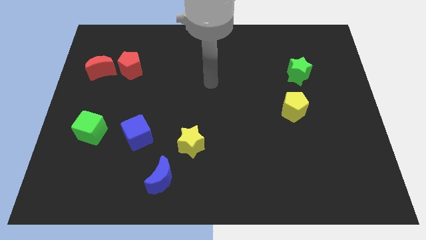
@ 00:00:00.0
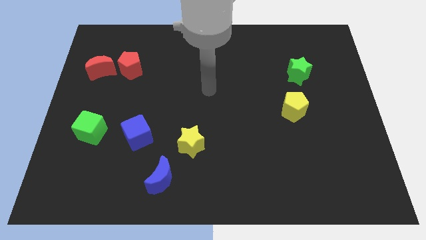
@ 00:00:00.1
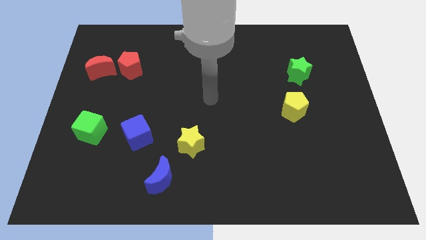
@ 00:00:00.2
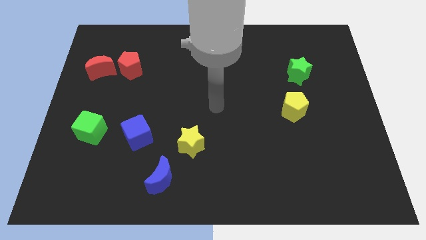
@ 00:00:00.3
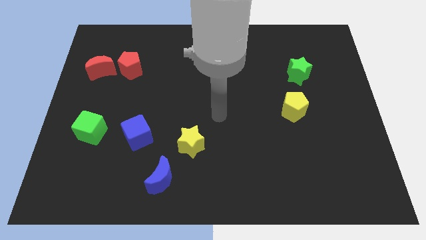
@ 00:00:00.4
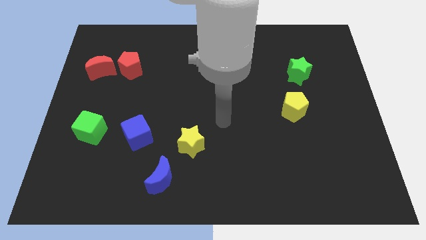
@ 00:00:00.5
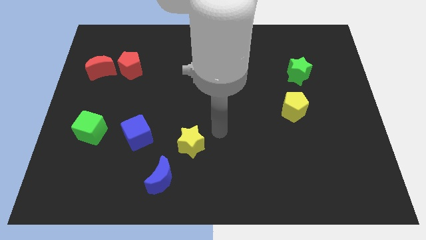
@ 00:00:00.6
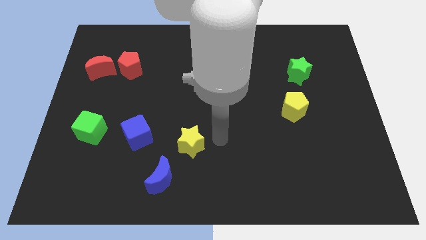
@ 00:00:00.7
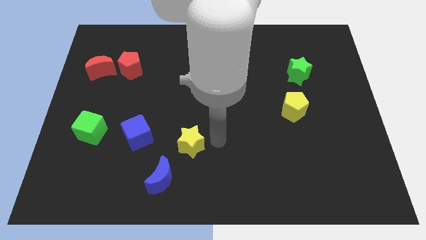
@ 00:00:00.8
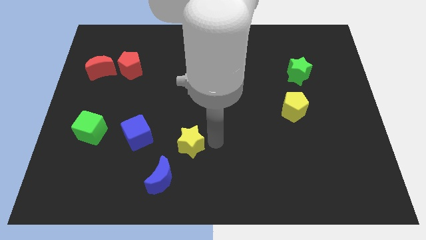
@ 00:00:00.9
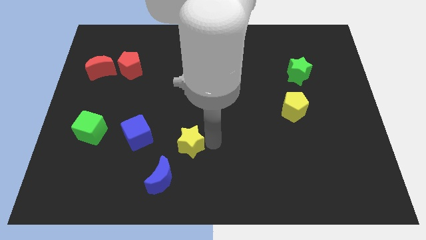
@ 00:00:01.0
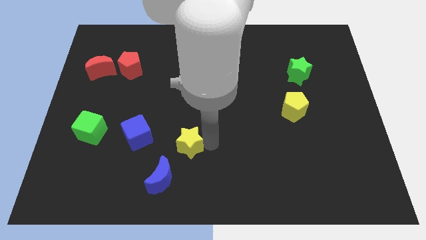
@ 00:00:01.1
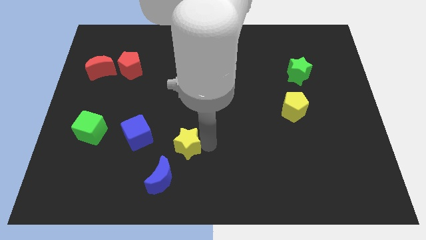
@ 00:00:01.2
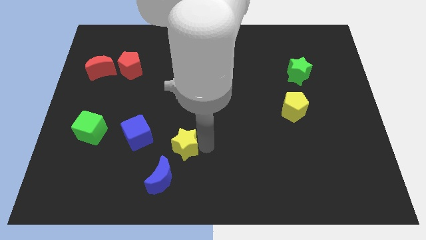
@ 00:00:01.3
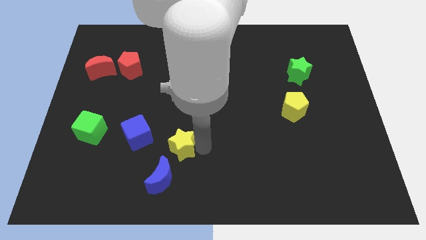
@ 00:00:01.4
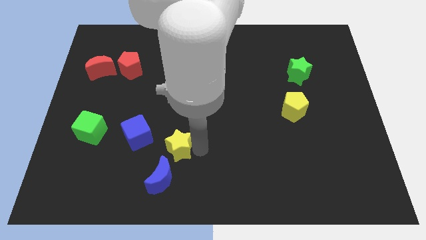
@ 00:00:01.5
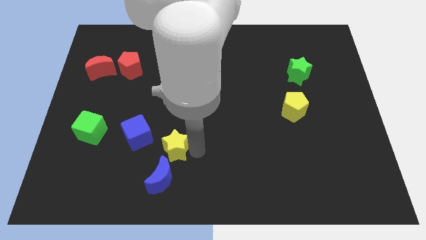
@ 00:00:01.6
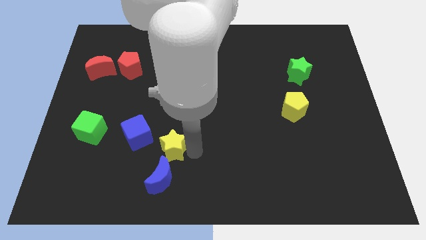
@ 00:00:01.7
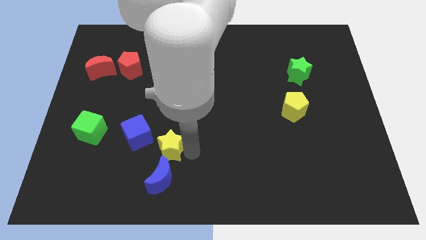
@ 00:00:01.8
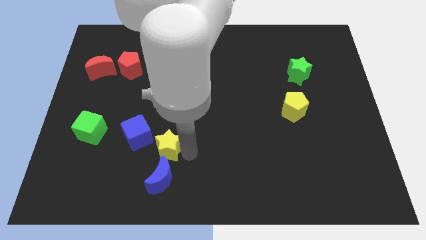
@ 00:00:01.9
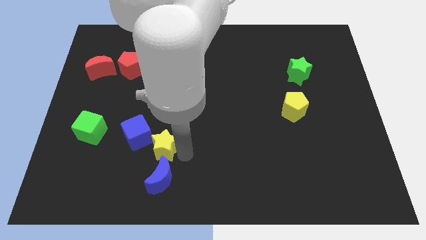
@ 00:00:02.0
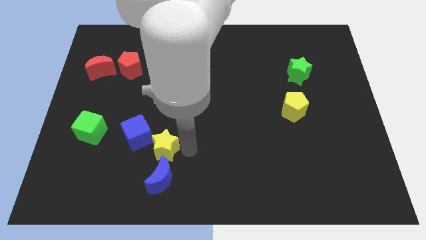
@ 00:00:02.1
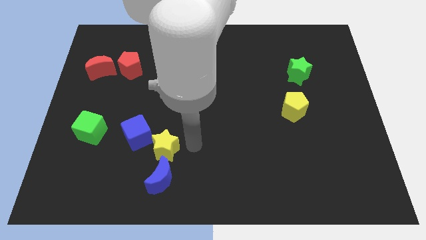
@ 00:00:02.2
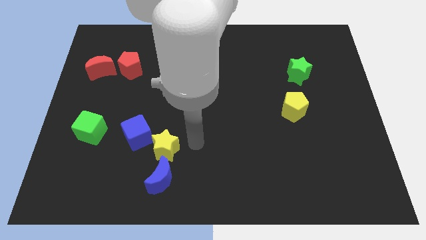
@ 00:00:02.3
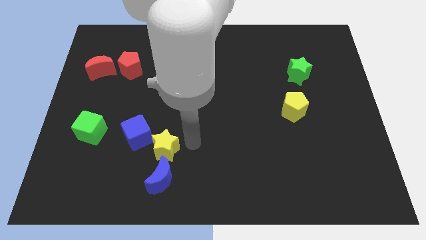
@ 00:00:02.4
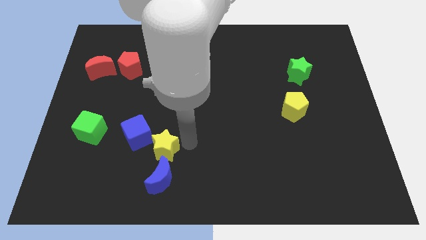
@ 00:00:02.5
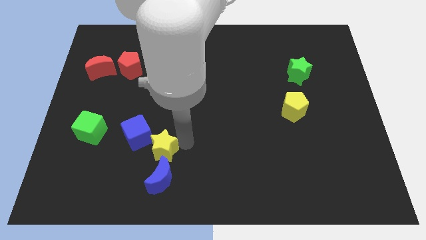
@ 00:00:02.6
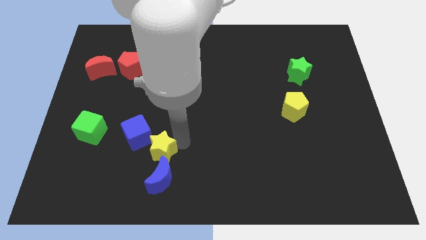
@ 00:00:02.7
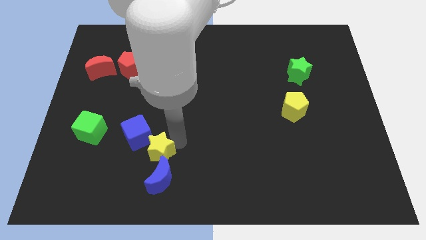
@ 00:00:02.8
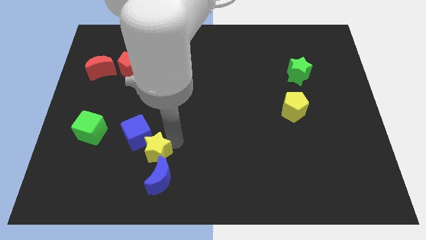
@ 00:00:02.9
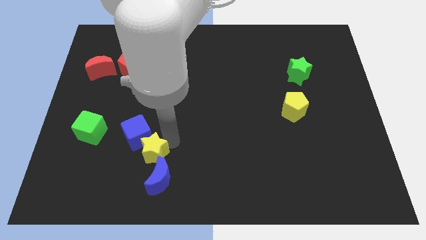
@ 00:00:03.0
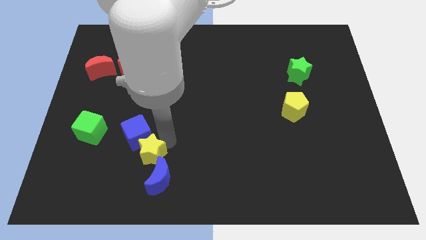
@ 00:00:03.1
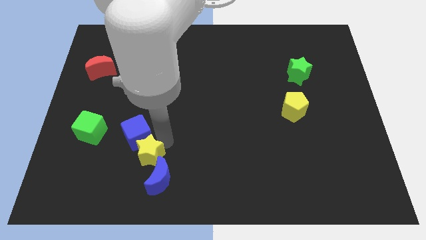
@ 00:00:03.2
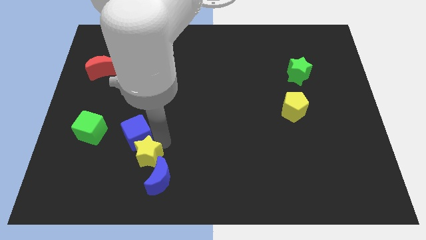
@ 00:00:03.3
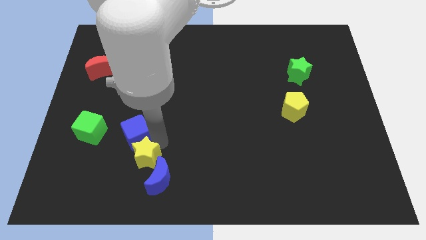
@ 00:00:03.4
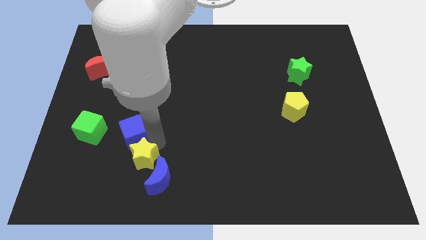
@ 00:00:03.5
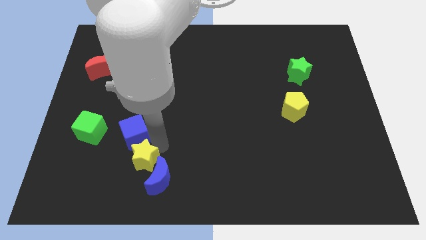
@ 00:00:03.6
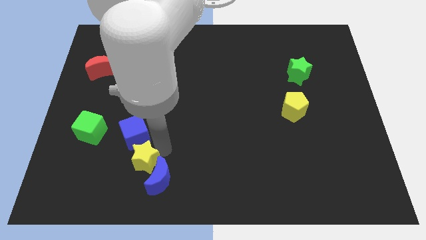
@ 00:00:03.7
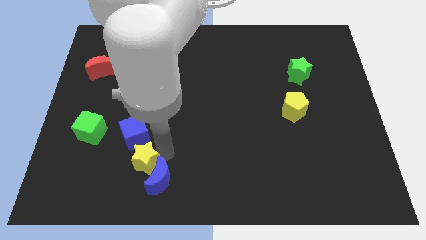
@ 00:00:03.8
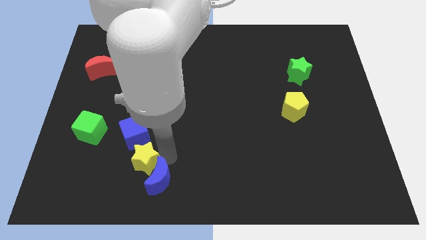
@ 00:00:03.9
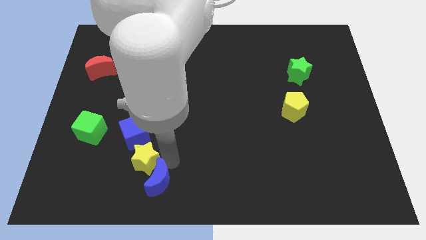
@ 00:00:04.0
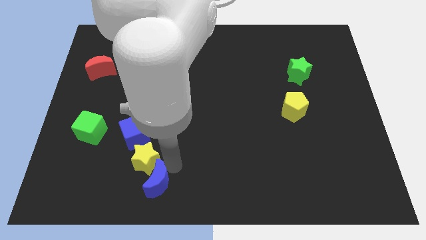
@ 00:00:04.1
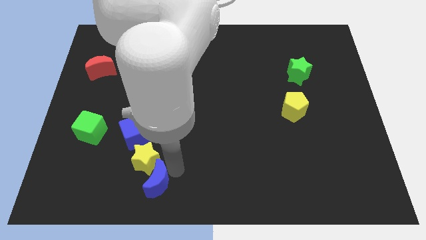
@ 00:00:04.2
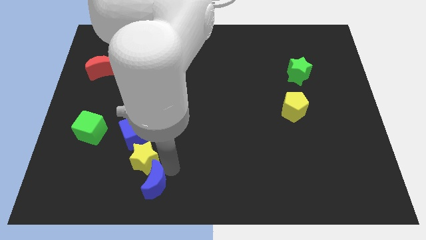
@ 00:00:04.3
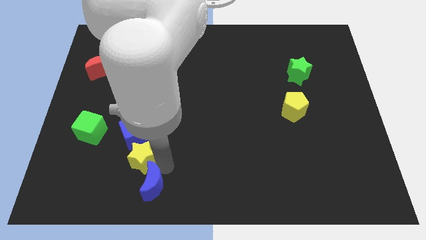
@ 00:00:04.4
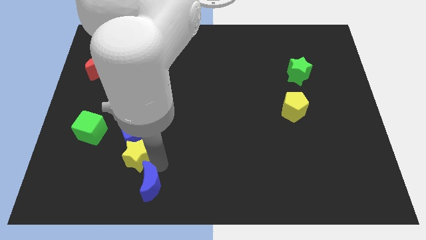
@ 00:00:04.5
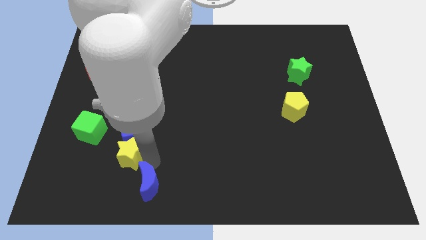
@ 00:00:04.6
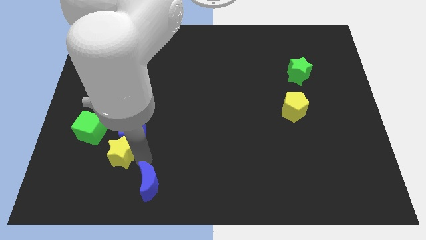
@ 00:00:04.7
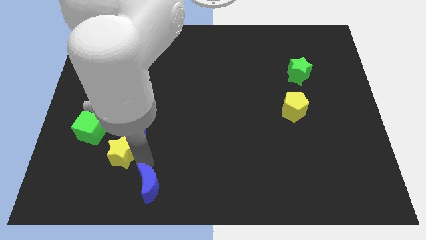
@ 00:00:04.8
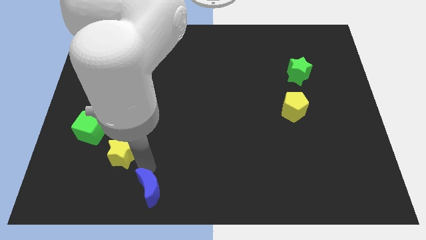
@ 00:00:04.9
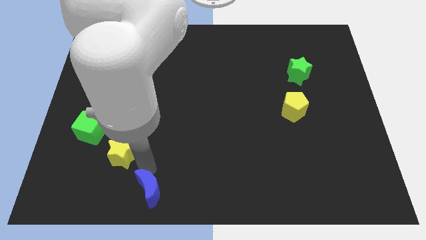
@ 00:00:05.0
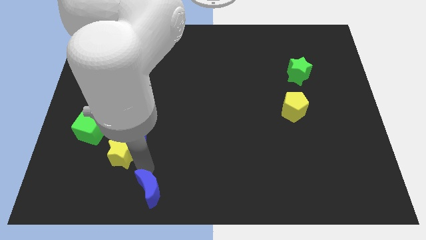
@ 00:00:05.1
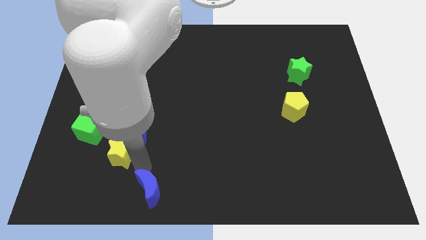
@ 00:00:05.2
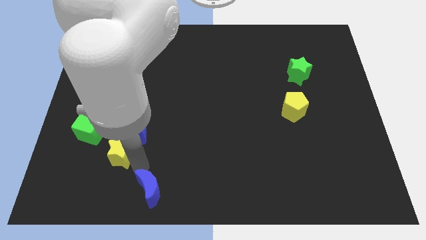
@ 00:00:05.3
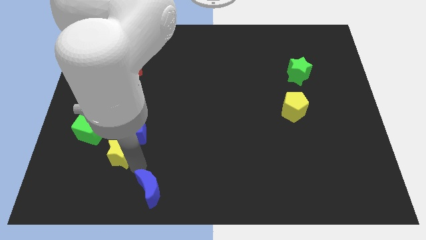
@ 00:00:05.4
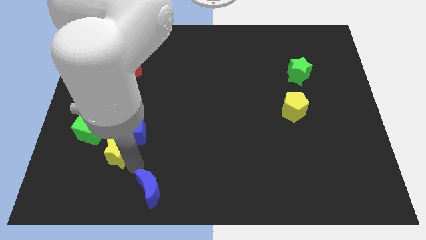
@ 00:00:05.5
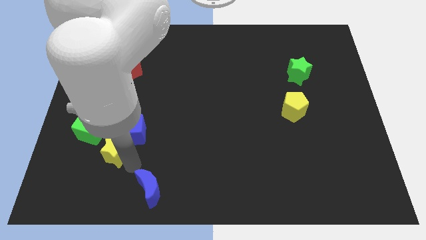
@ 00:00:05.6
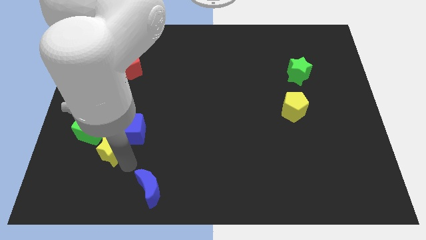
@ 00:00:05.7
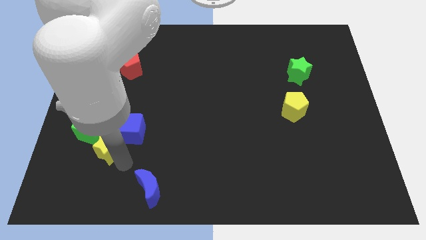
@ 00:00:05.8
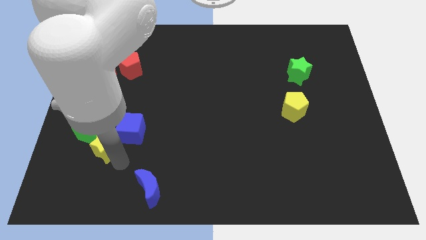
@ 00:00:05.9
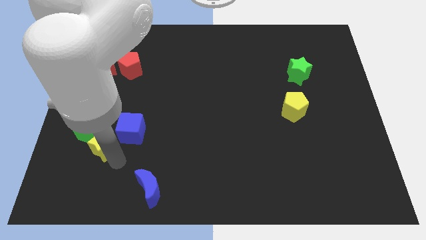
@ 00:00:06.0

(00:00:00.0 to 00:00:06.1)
push the yellow star to the green cube

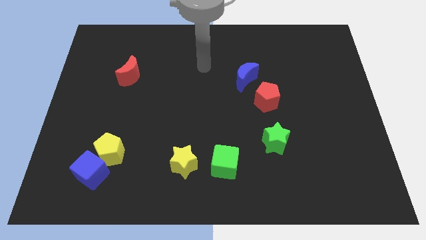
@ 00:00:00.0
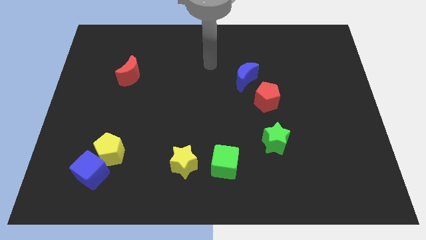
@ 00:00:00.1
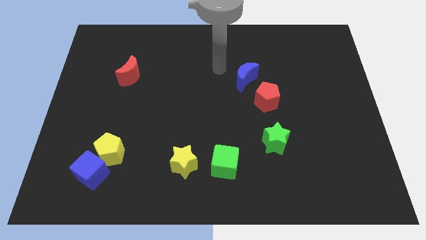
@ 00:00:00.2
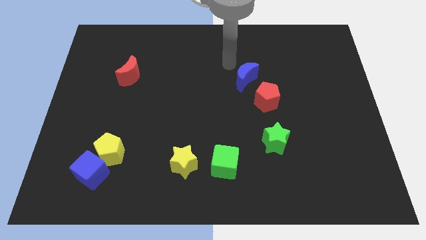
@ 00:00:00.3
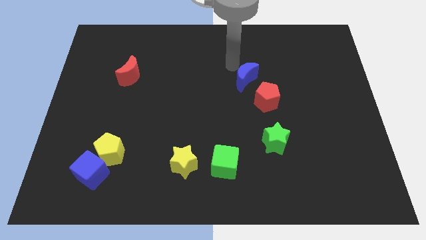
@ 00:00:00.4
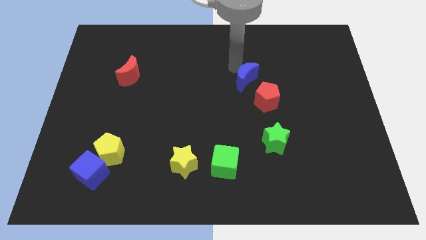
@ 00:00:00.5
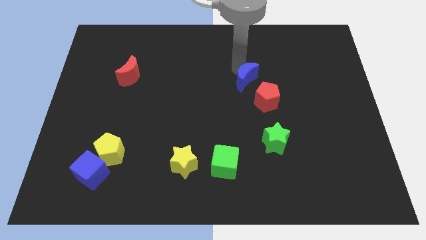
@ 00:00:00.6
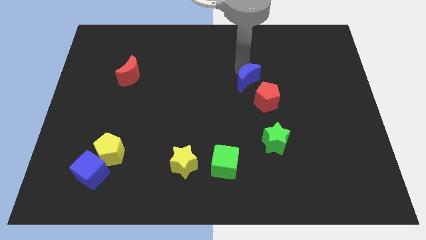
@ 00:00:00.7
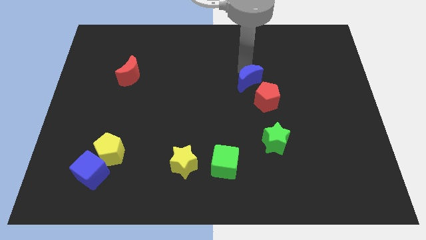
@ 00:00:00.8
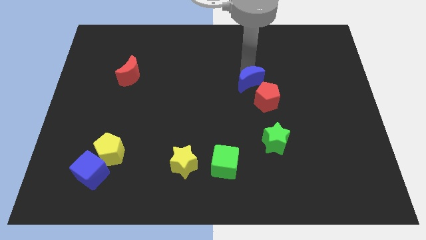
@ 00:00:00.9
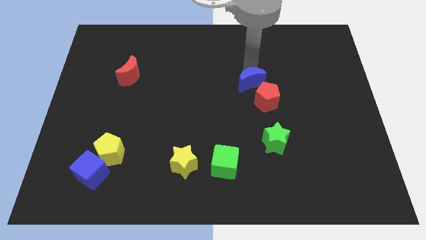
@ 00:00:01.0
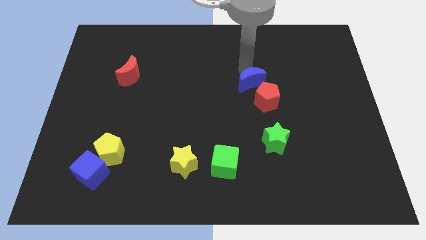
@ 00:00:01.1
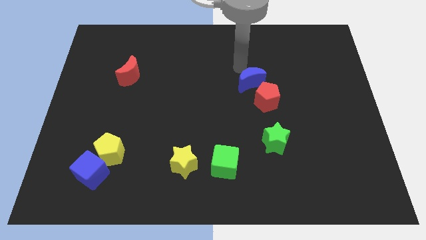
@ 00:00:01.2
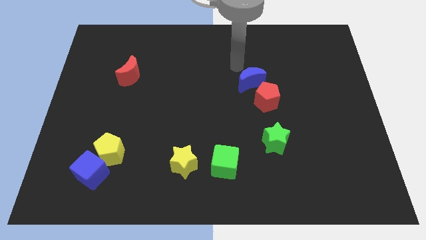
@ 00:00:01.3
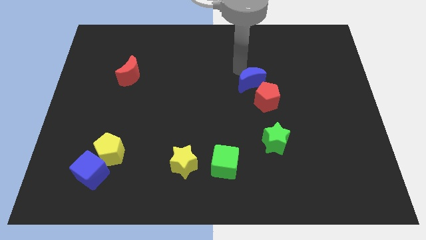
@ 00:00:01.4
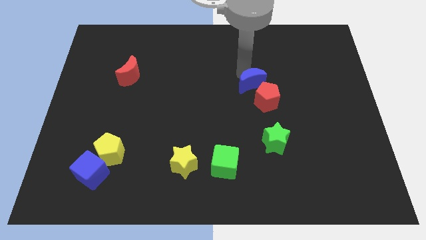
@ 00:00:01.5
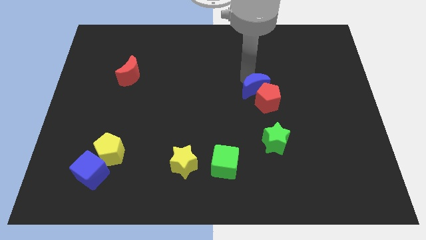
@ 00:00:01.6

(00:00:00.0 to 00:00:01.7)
slide the blue moon to the red pentagon
